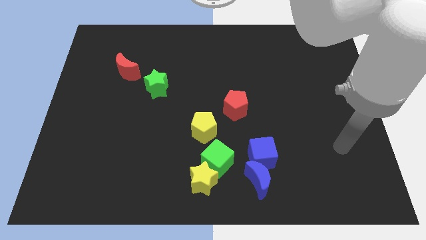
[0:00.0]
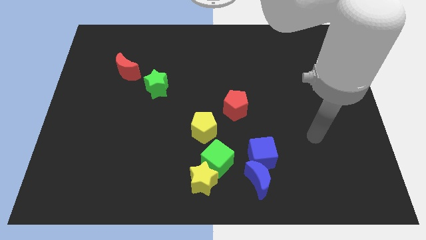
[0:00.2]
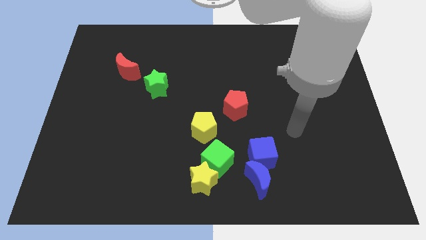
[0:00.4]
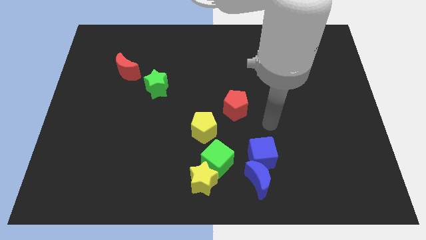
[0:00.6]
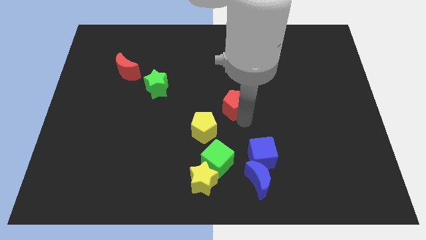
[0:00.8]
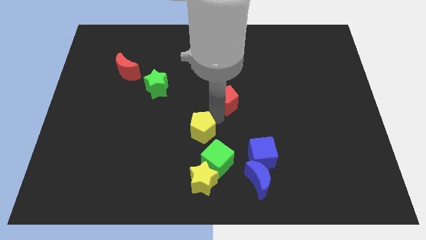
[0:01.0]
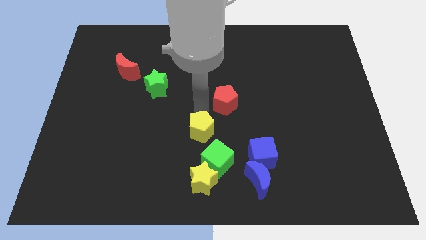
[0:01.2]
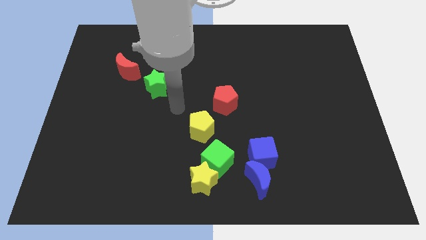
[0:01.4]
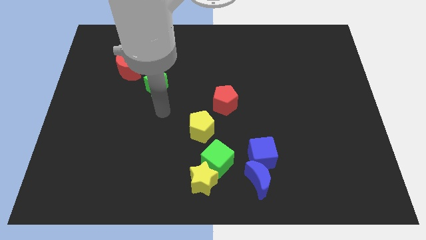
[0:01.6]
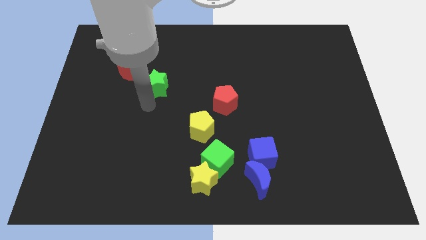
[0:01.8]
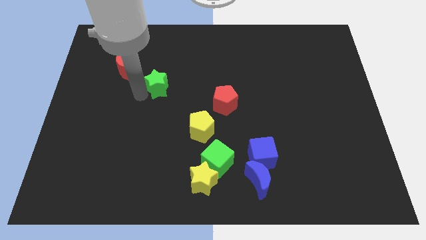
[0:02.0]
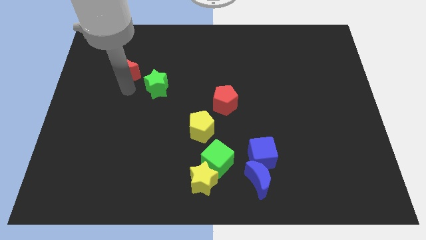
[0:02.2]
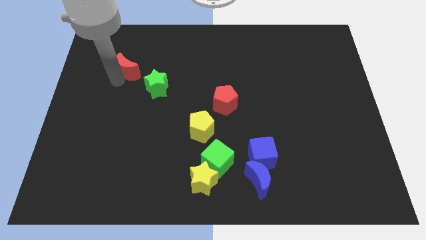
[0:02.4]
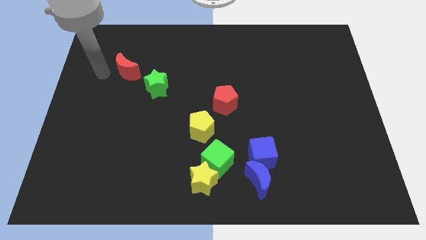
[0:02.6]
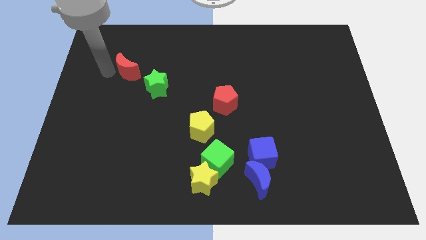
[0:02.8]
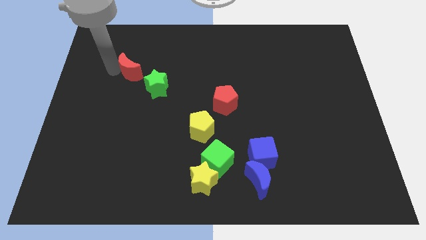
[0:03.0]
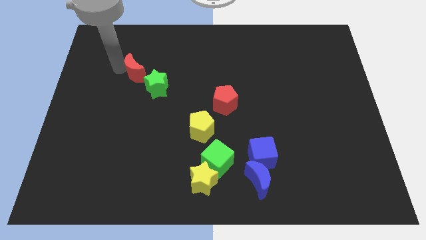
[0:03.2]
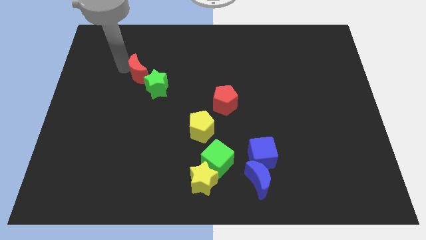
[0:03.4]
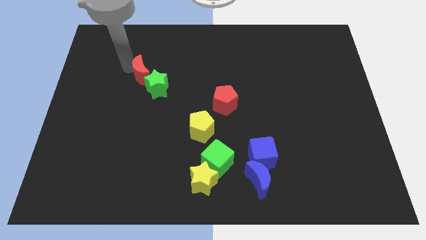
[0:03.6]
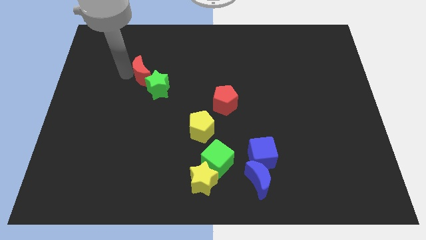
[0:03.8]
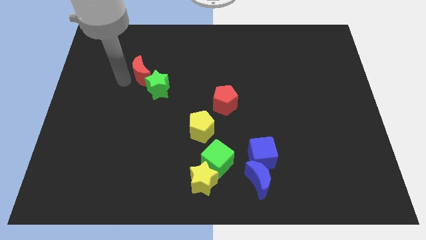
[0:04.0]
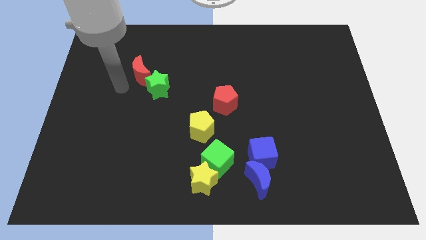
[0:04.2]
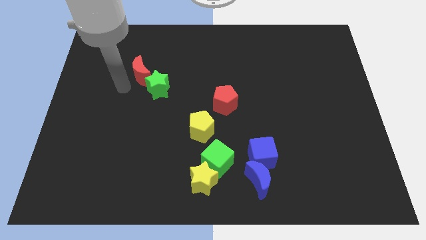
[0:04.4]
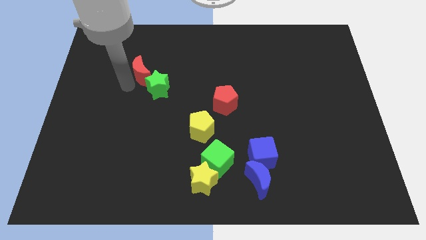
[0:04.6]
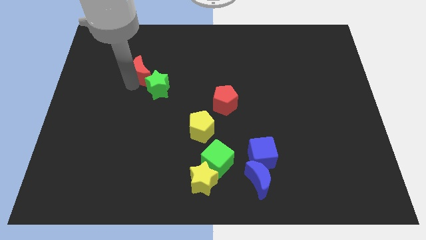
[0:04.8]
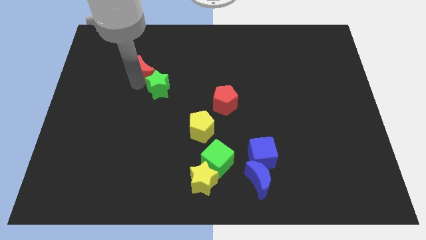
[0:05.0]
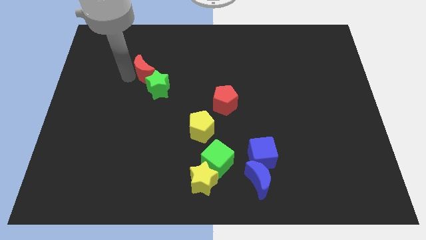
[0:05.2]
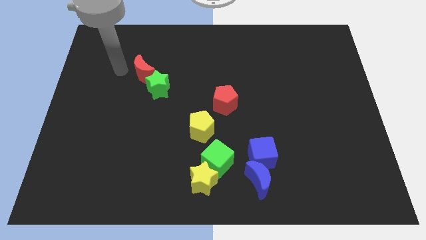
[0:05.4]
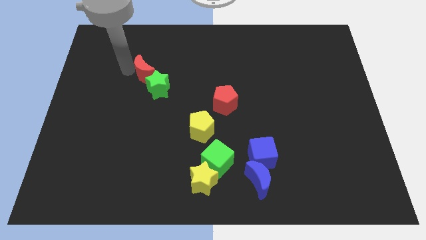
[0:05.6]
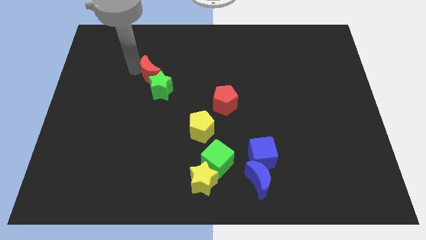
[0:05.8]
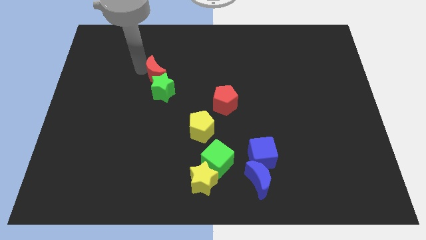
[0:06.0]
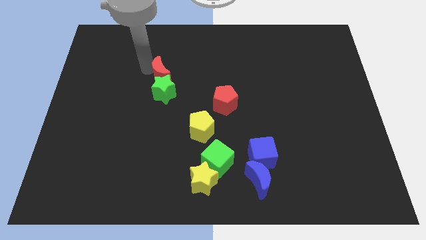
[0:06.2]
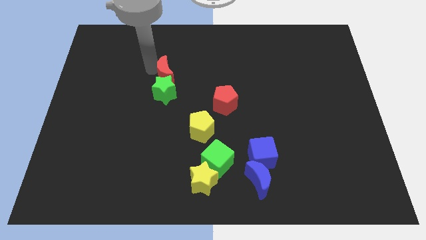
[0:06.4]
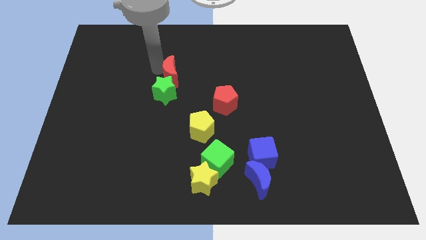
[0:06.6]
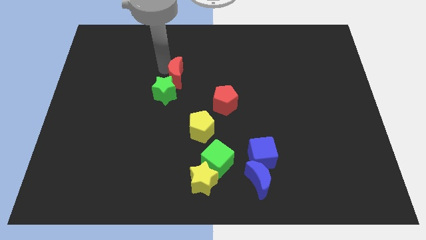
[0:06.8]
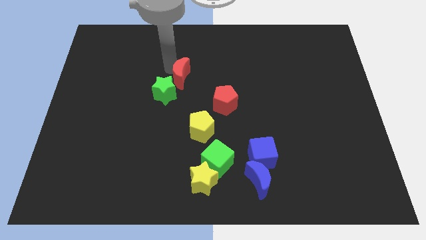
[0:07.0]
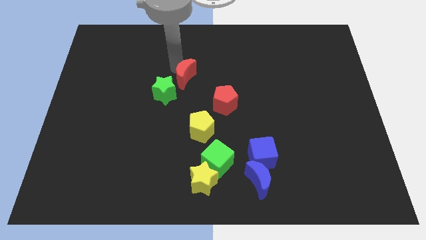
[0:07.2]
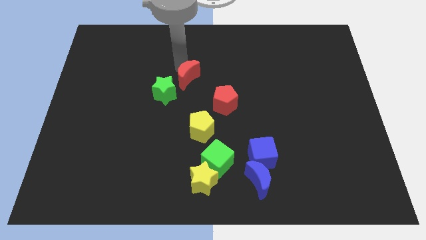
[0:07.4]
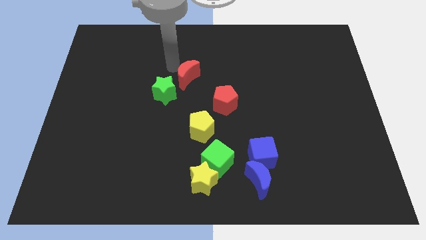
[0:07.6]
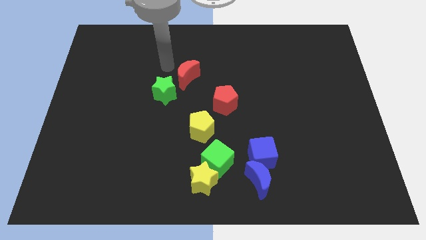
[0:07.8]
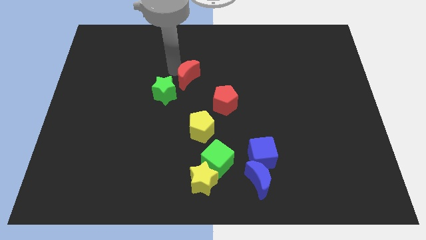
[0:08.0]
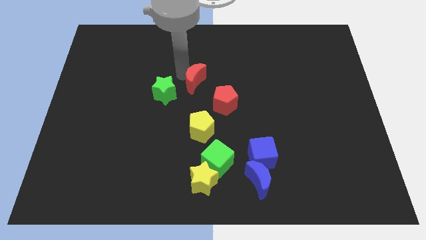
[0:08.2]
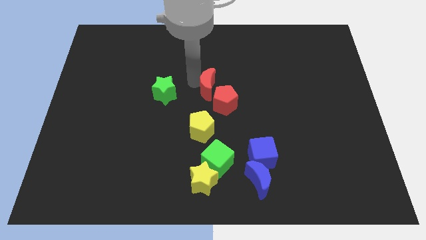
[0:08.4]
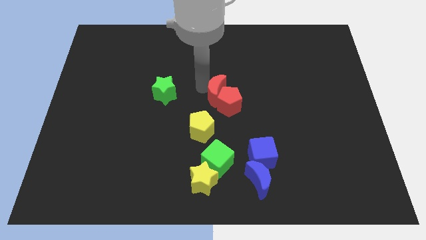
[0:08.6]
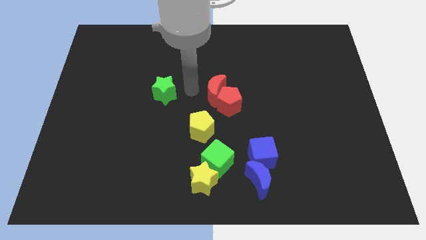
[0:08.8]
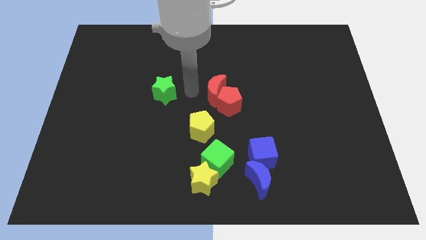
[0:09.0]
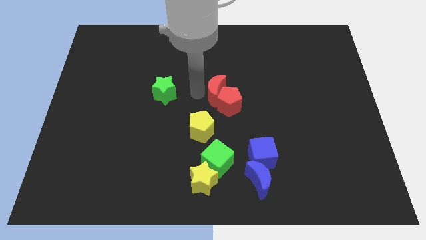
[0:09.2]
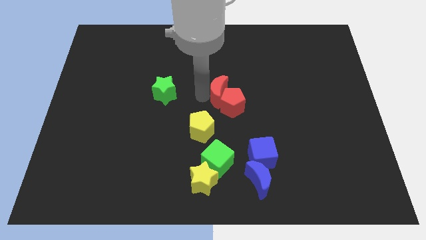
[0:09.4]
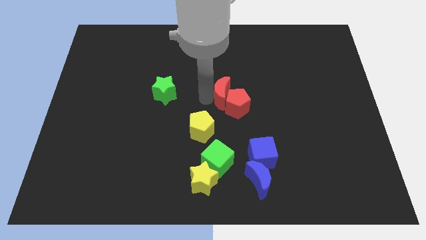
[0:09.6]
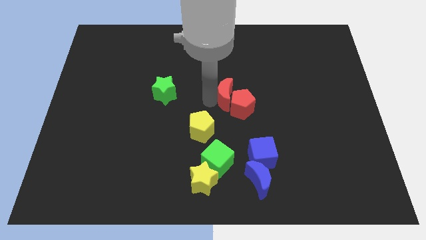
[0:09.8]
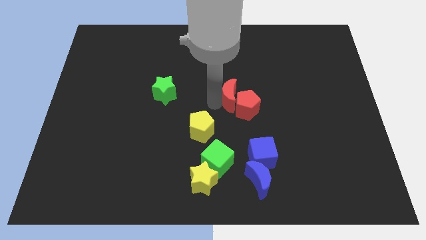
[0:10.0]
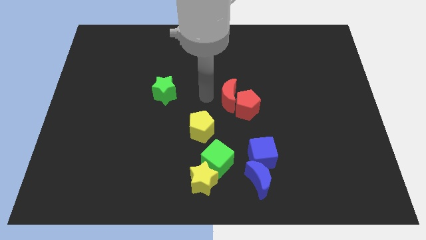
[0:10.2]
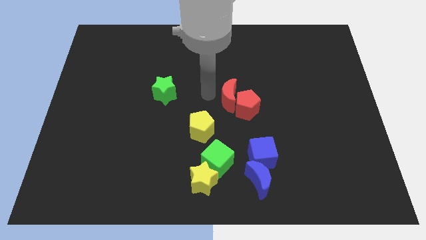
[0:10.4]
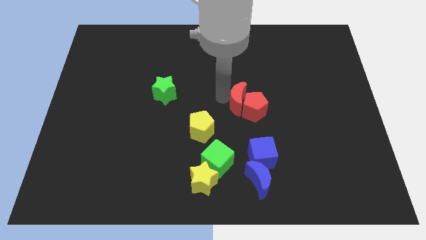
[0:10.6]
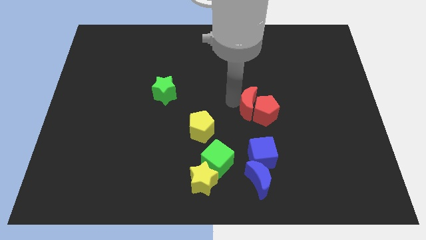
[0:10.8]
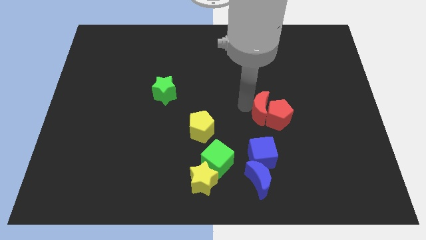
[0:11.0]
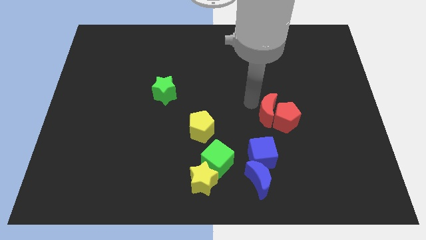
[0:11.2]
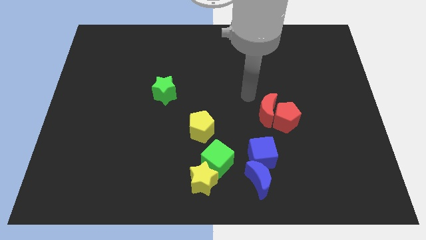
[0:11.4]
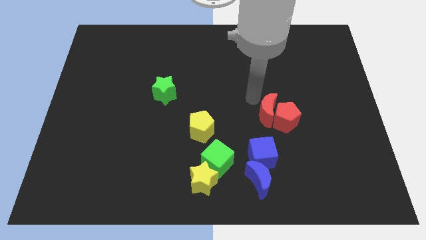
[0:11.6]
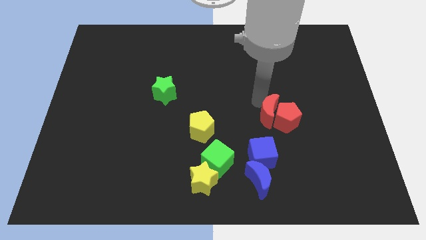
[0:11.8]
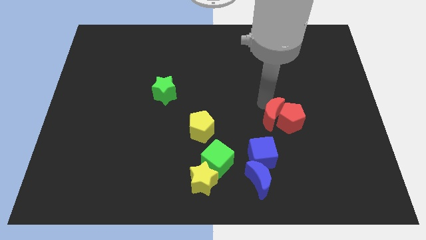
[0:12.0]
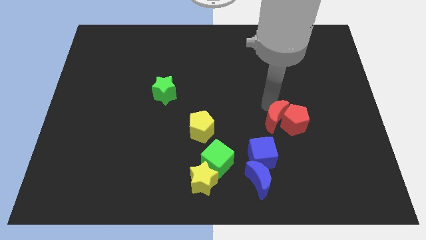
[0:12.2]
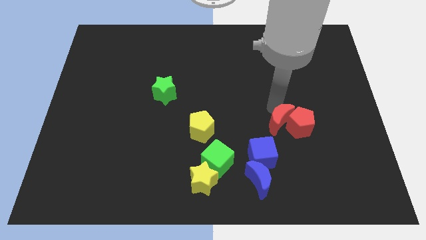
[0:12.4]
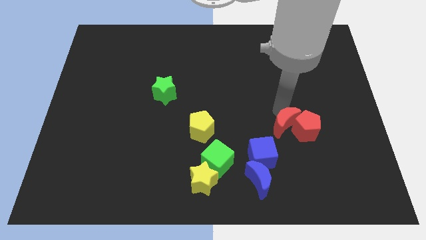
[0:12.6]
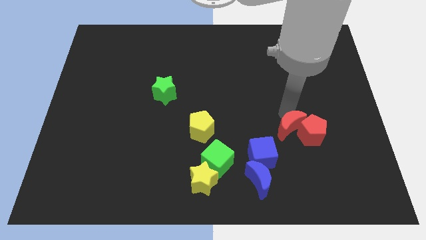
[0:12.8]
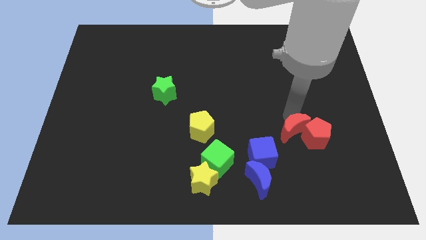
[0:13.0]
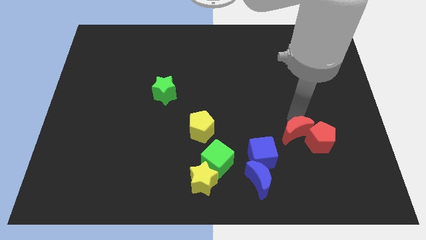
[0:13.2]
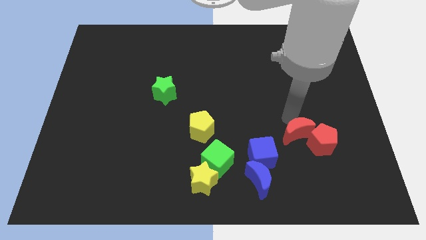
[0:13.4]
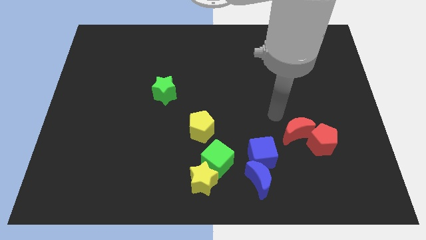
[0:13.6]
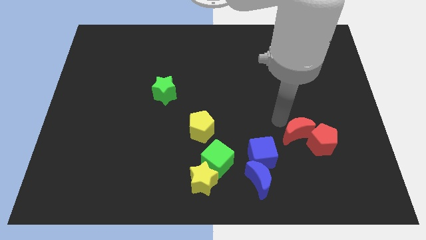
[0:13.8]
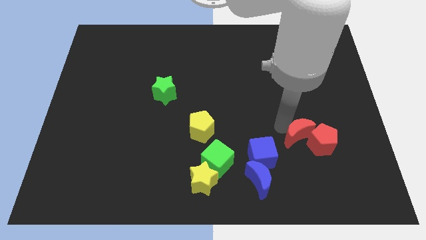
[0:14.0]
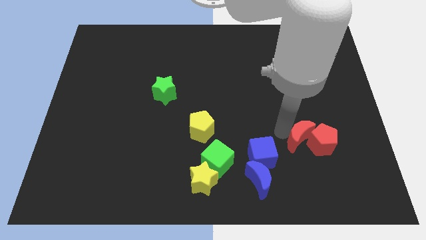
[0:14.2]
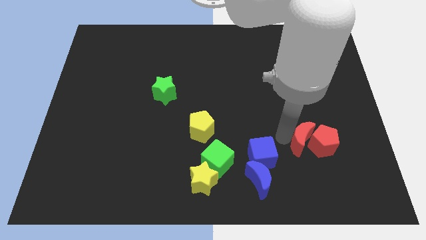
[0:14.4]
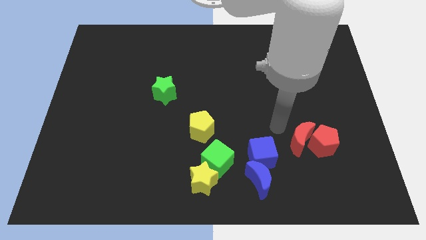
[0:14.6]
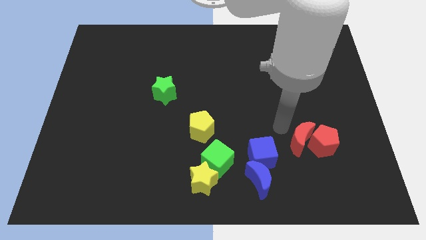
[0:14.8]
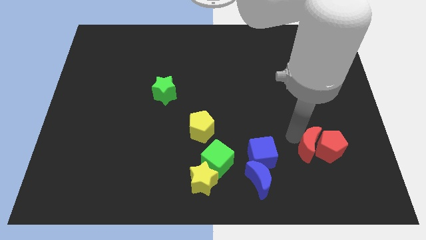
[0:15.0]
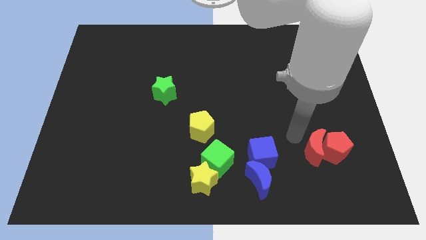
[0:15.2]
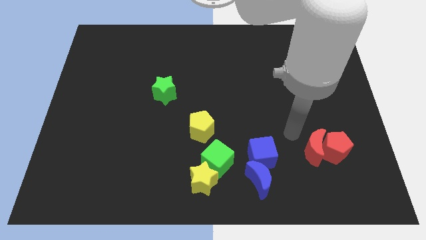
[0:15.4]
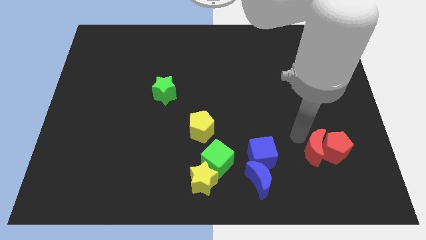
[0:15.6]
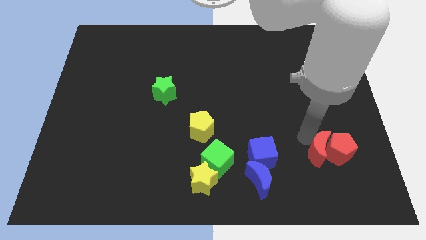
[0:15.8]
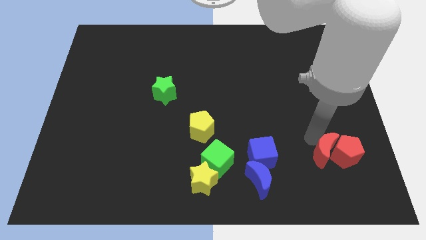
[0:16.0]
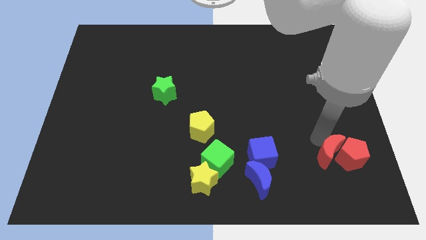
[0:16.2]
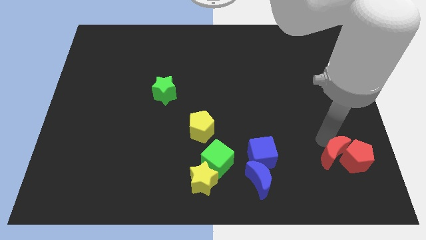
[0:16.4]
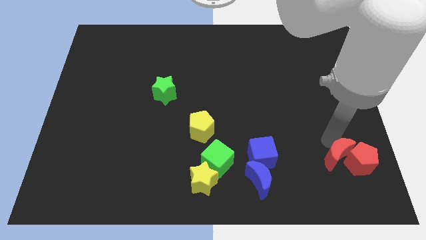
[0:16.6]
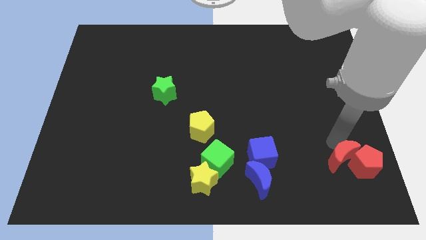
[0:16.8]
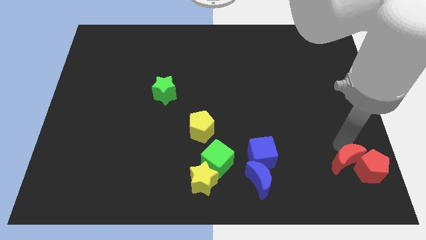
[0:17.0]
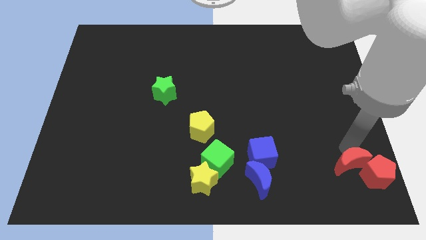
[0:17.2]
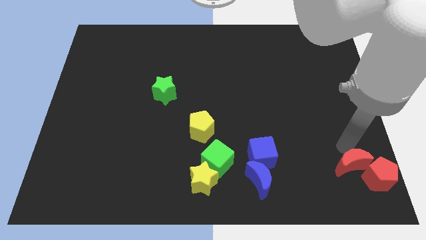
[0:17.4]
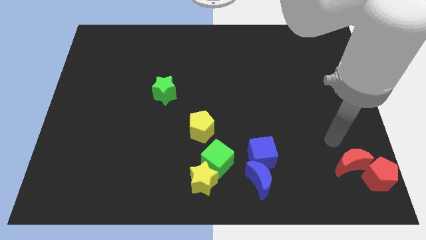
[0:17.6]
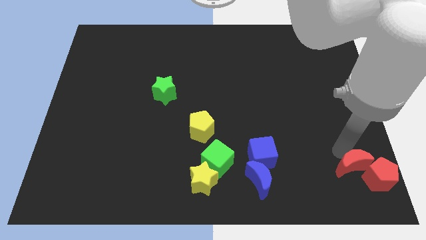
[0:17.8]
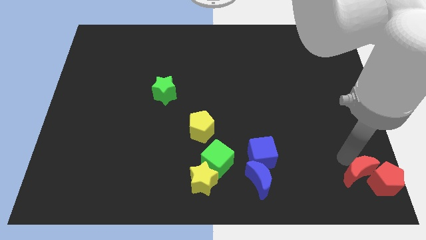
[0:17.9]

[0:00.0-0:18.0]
put the red moon to the bottom right corner
